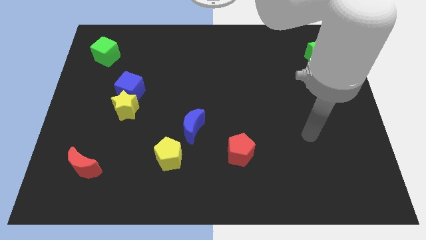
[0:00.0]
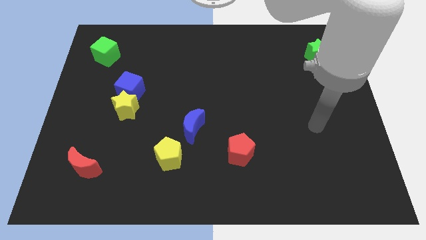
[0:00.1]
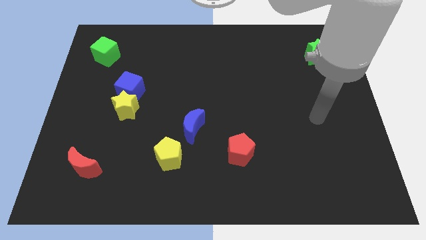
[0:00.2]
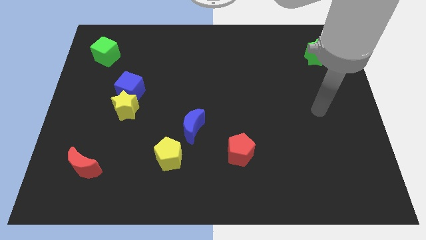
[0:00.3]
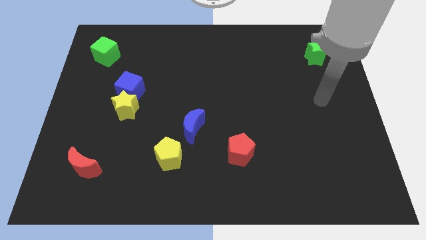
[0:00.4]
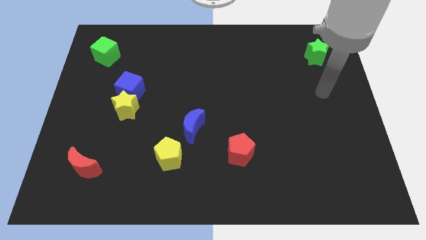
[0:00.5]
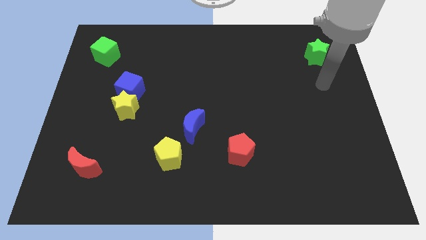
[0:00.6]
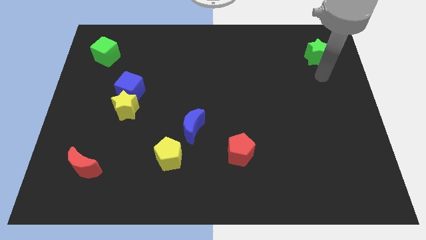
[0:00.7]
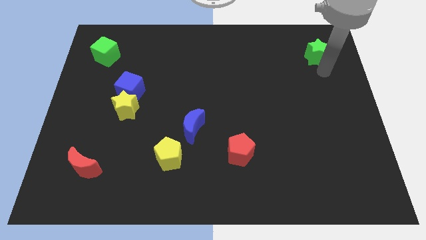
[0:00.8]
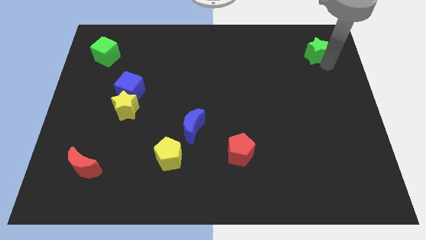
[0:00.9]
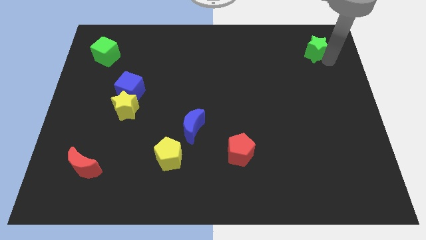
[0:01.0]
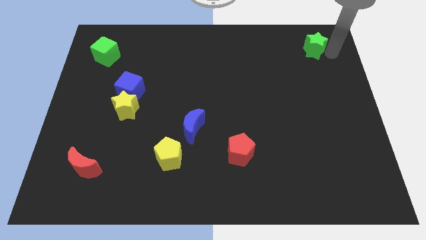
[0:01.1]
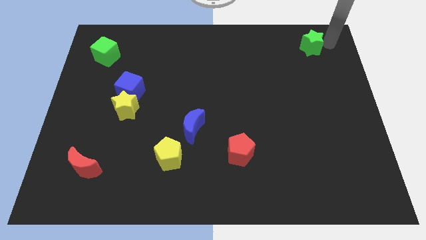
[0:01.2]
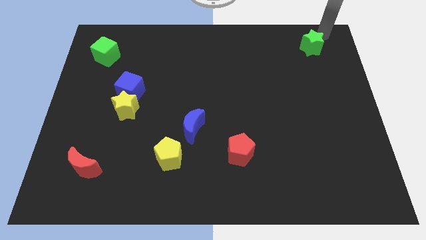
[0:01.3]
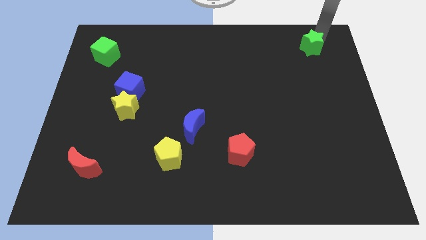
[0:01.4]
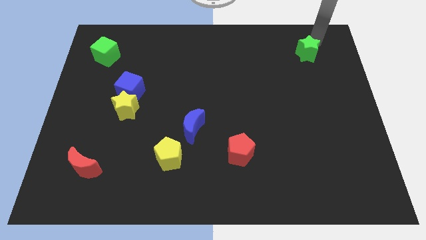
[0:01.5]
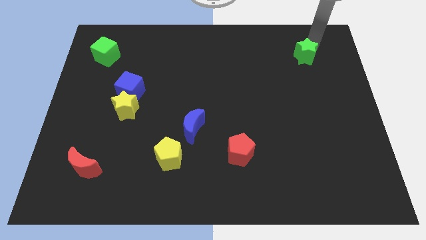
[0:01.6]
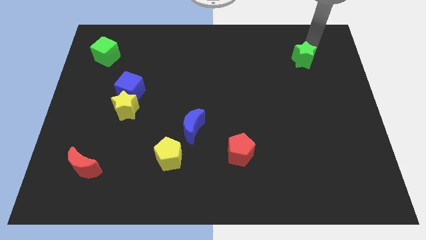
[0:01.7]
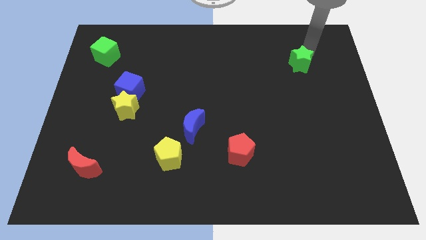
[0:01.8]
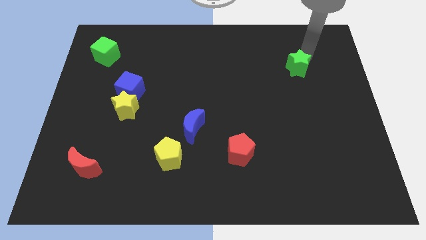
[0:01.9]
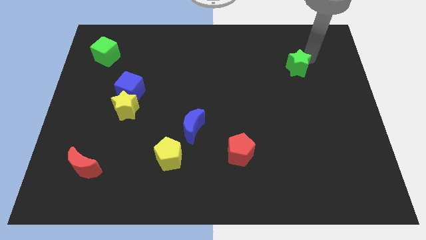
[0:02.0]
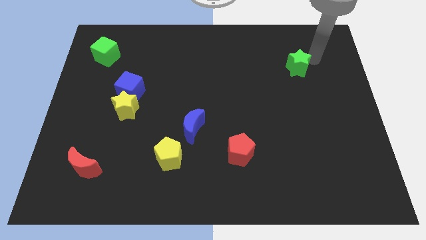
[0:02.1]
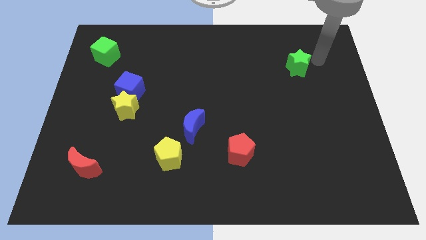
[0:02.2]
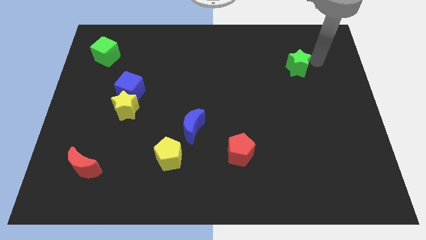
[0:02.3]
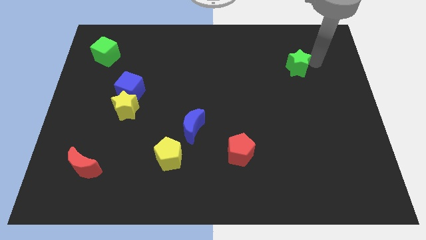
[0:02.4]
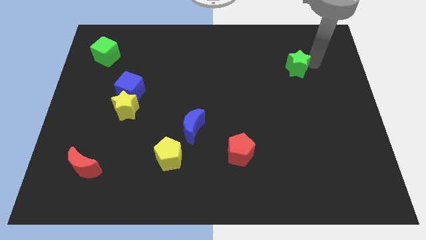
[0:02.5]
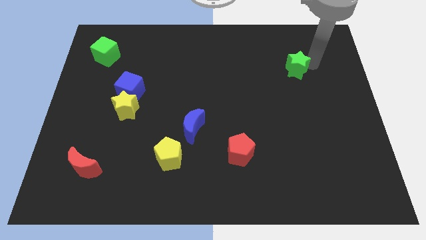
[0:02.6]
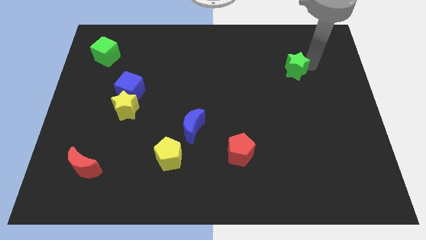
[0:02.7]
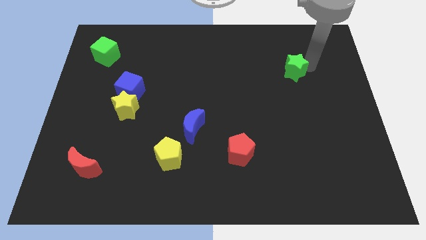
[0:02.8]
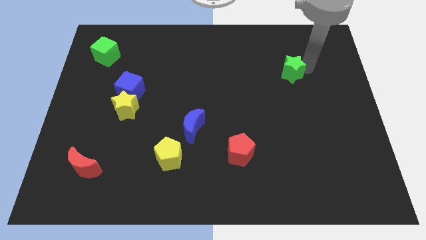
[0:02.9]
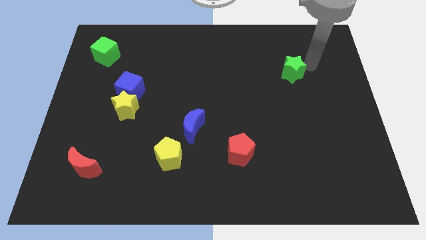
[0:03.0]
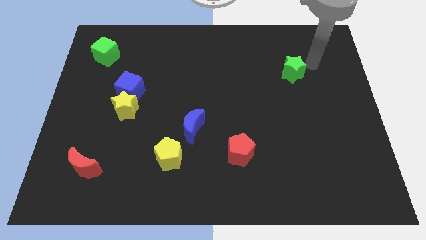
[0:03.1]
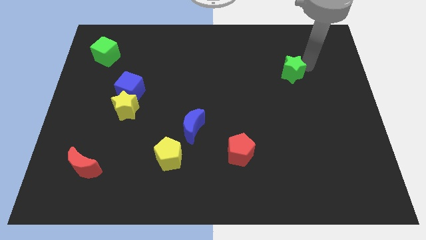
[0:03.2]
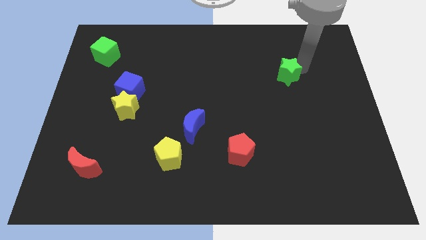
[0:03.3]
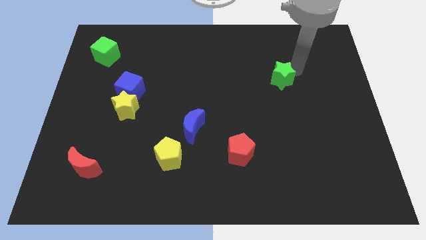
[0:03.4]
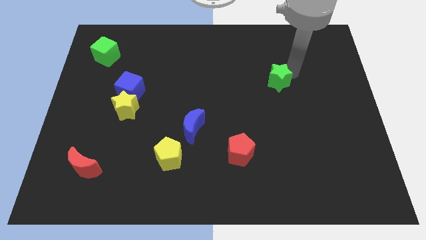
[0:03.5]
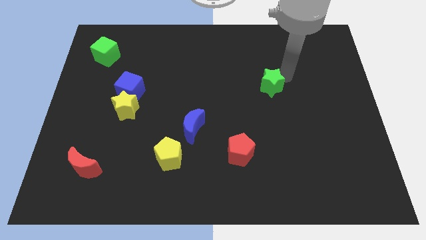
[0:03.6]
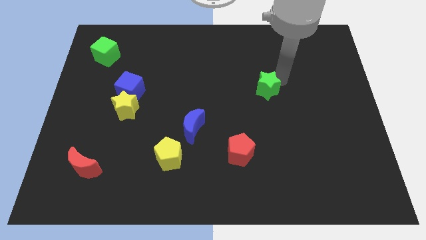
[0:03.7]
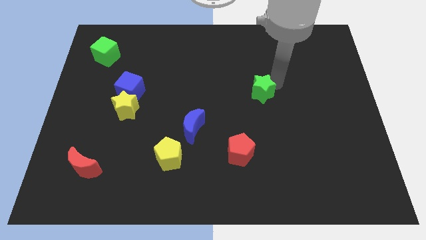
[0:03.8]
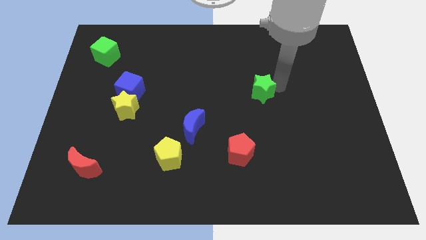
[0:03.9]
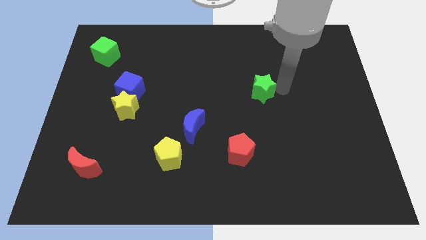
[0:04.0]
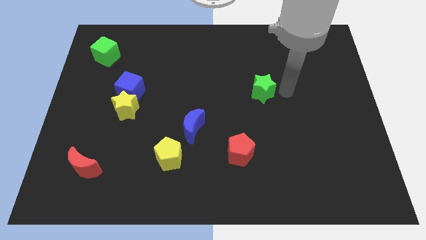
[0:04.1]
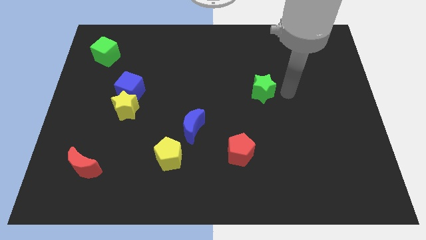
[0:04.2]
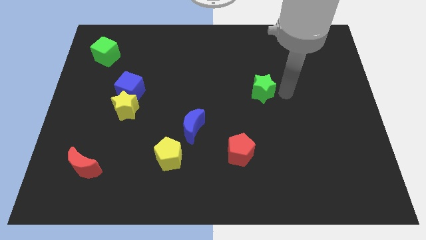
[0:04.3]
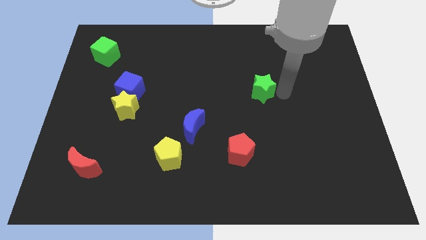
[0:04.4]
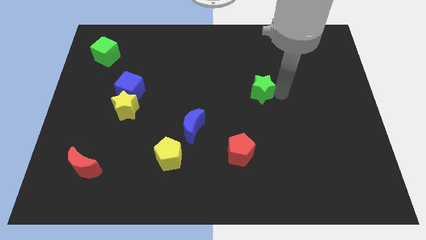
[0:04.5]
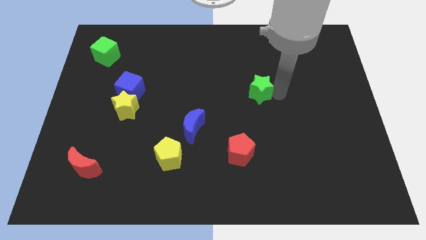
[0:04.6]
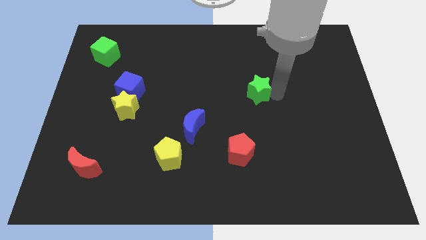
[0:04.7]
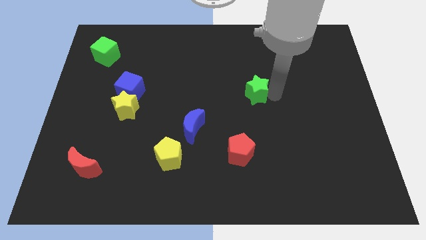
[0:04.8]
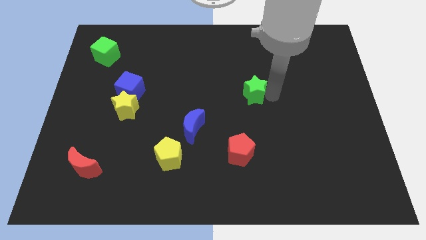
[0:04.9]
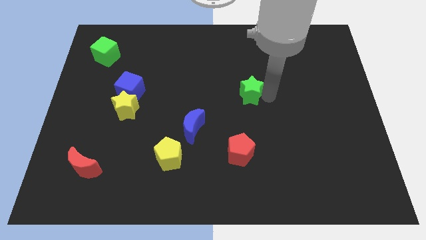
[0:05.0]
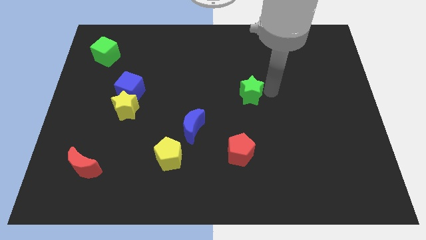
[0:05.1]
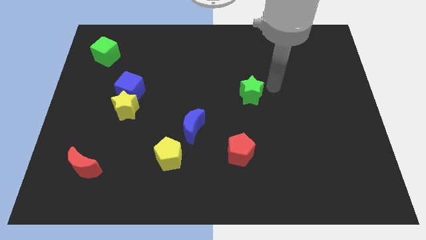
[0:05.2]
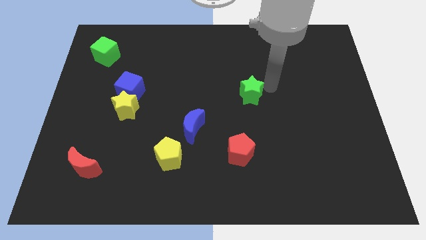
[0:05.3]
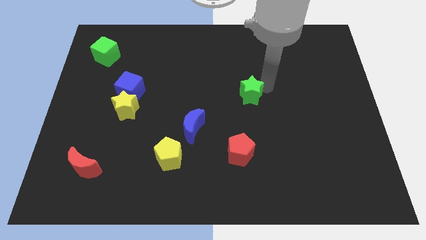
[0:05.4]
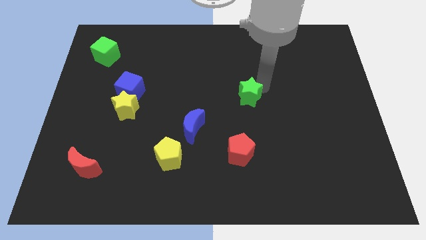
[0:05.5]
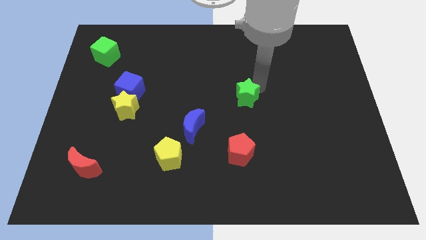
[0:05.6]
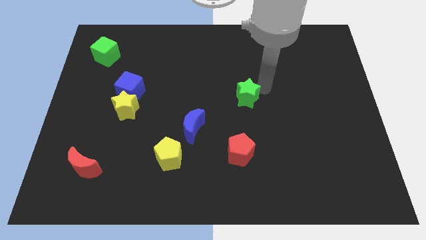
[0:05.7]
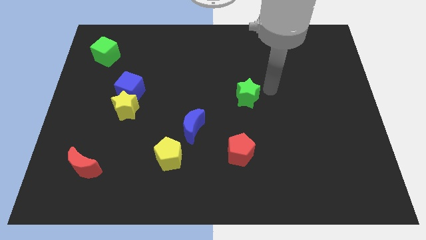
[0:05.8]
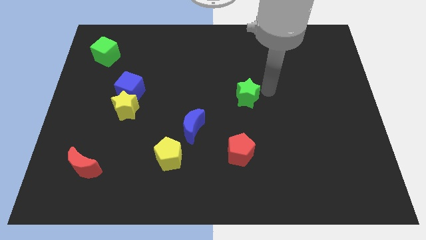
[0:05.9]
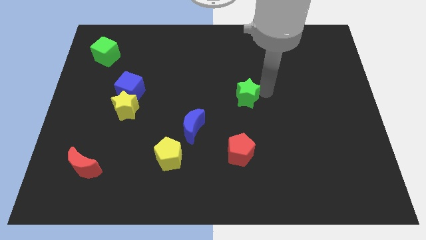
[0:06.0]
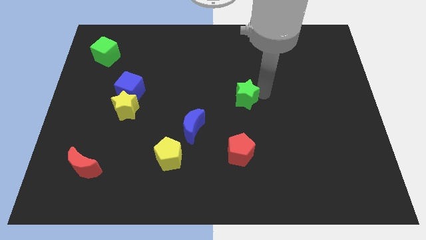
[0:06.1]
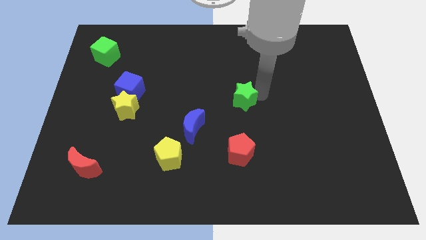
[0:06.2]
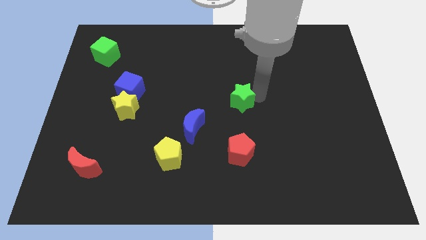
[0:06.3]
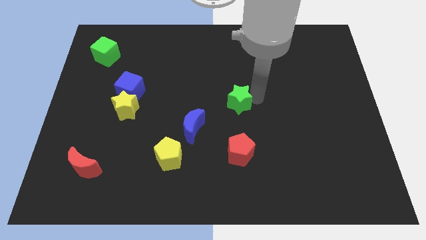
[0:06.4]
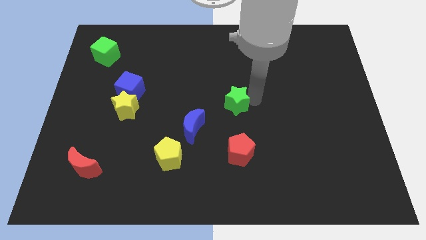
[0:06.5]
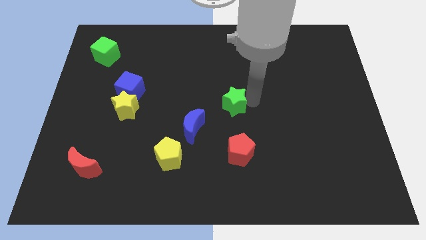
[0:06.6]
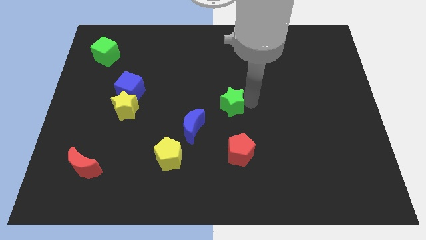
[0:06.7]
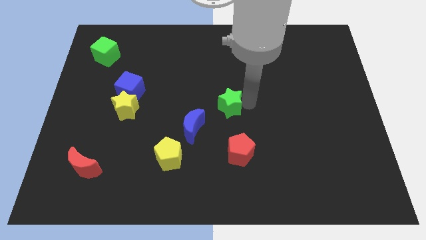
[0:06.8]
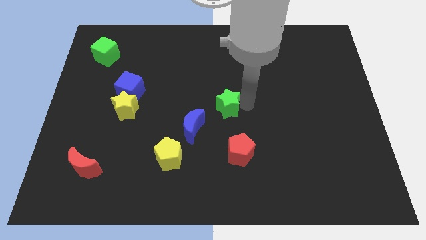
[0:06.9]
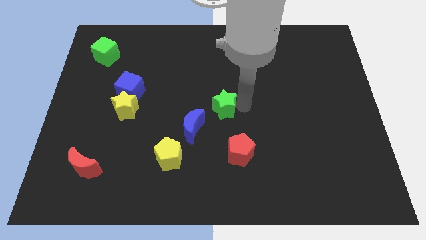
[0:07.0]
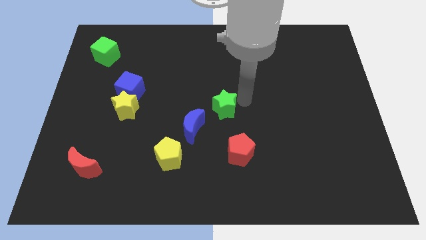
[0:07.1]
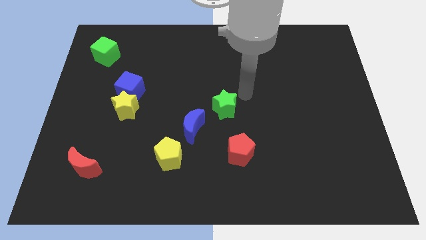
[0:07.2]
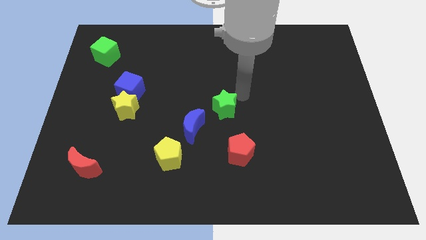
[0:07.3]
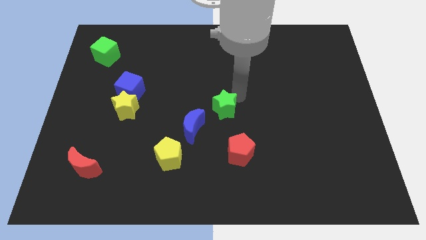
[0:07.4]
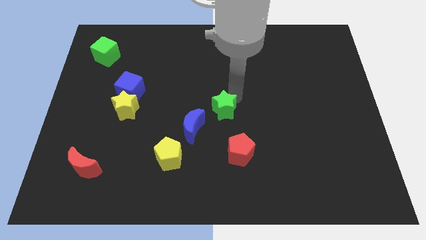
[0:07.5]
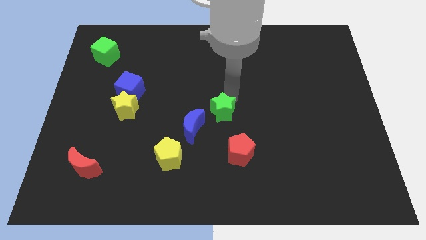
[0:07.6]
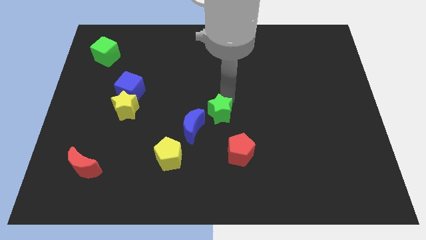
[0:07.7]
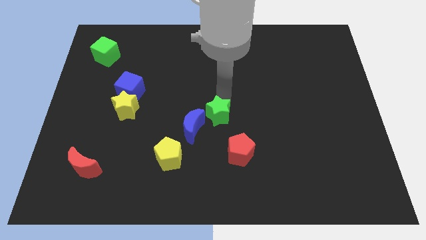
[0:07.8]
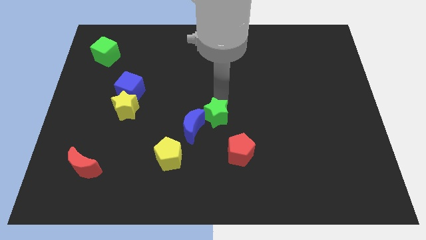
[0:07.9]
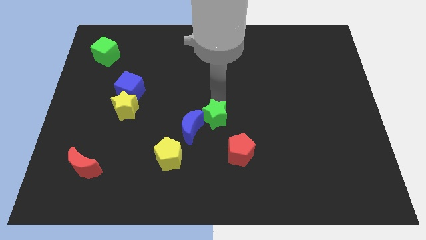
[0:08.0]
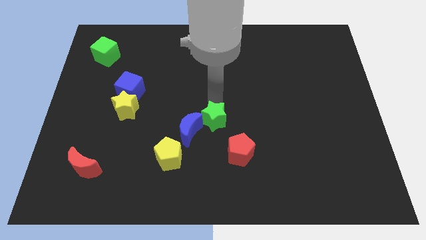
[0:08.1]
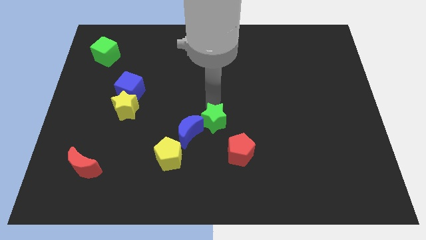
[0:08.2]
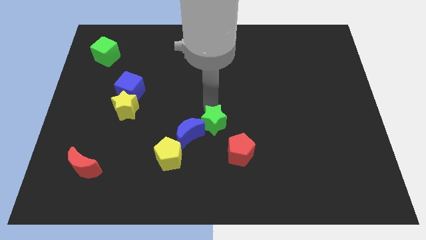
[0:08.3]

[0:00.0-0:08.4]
put the green star close to the blue moon
